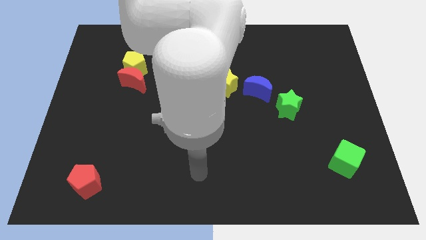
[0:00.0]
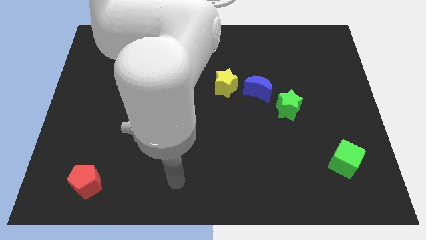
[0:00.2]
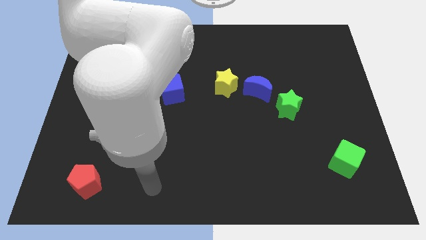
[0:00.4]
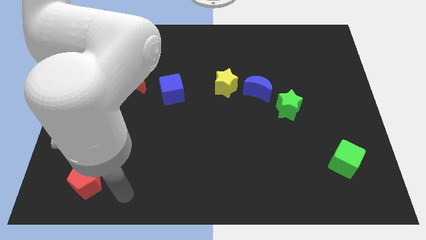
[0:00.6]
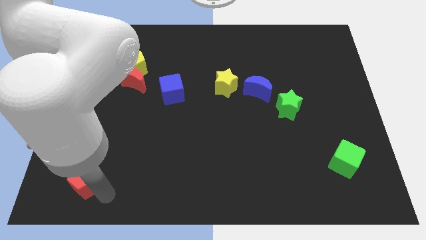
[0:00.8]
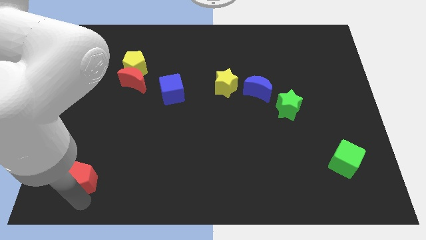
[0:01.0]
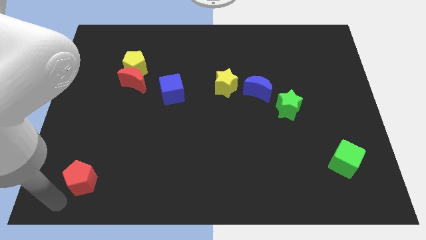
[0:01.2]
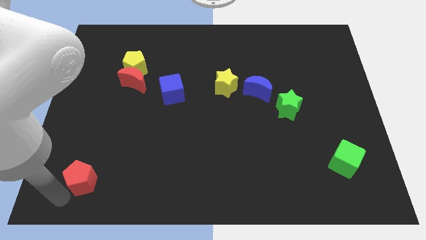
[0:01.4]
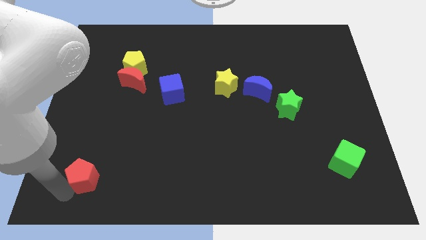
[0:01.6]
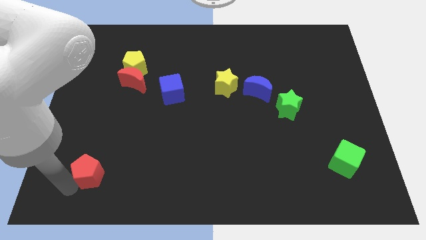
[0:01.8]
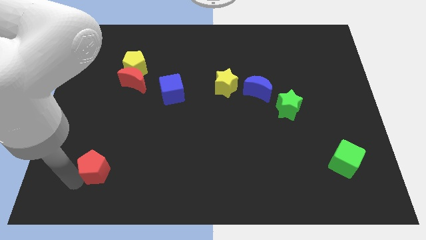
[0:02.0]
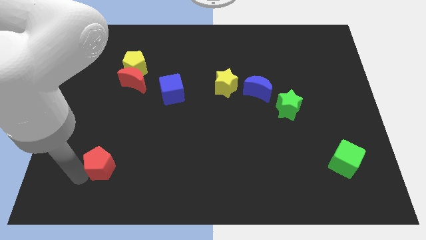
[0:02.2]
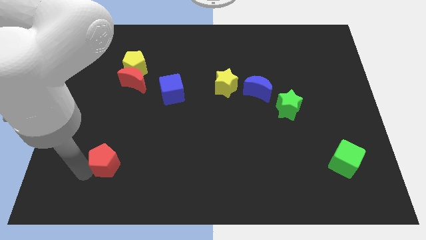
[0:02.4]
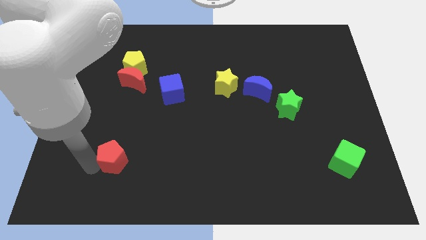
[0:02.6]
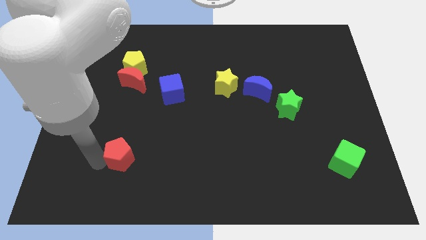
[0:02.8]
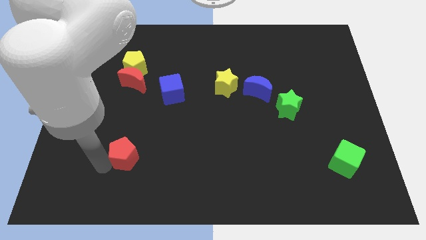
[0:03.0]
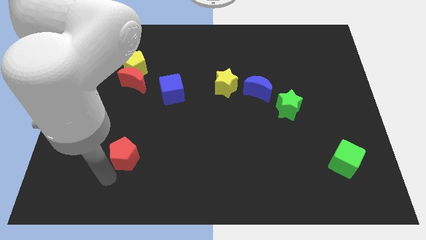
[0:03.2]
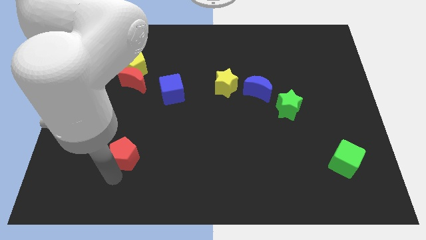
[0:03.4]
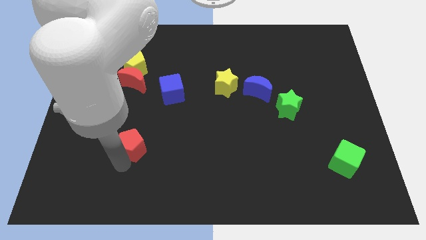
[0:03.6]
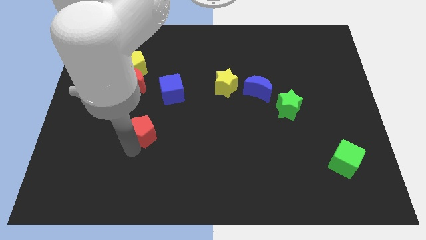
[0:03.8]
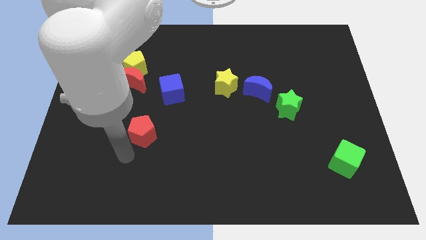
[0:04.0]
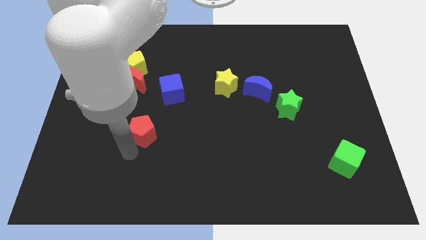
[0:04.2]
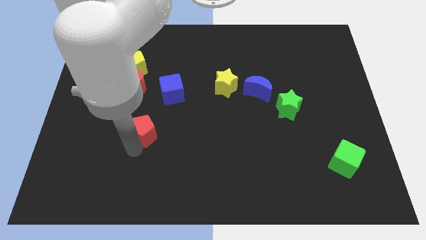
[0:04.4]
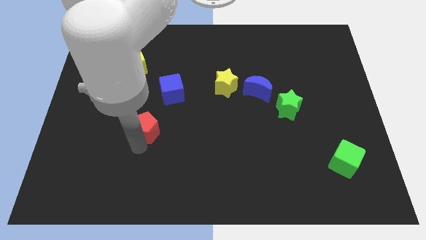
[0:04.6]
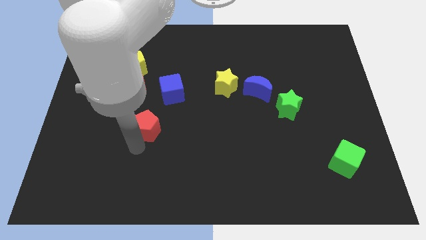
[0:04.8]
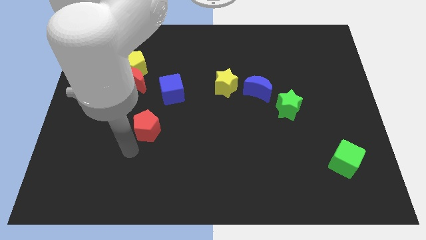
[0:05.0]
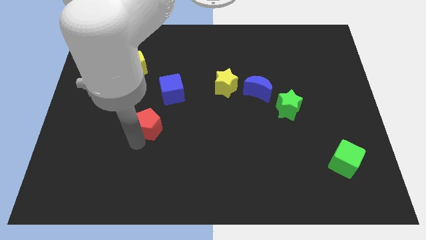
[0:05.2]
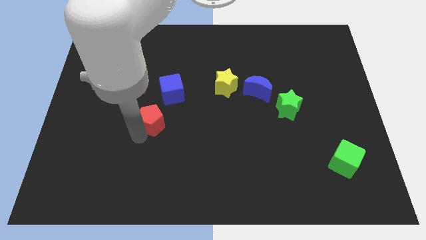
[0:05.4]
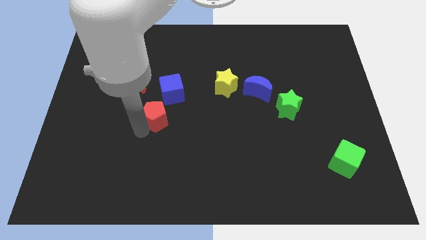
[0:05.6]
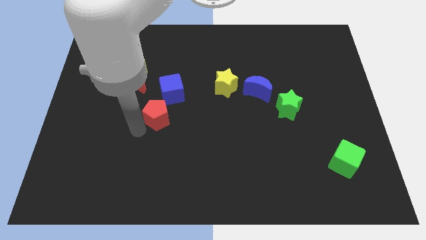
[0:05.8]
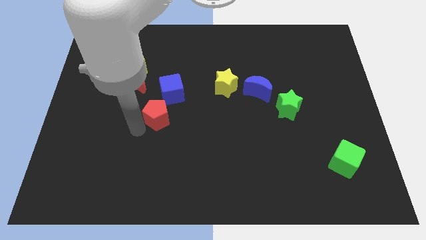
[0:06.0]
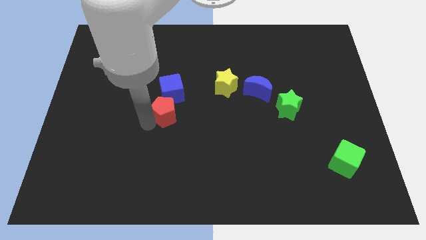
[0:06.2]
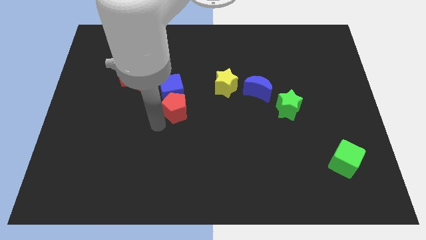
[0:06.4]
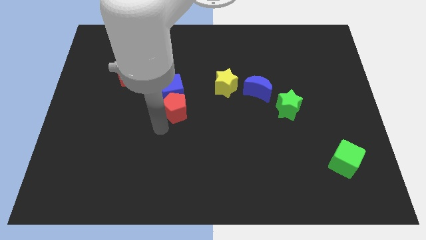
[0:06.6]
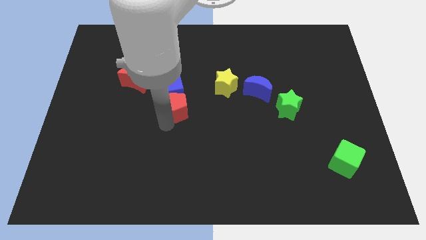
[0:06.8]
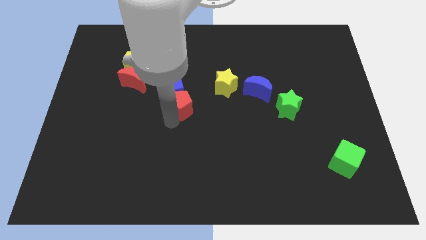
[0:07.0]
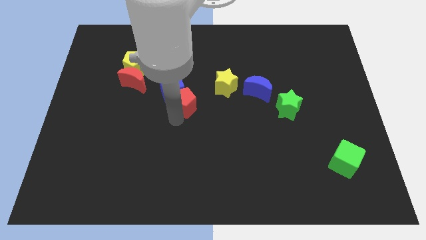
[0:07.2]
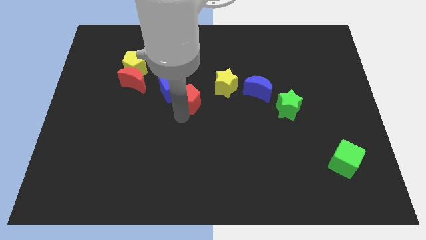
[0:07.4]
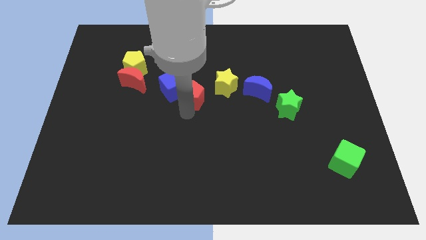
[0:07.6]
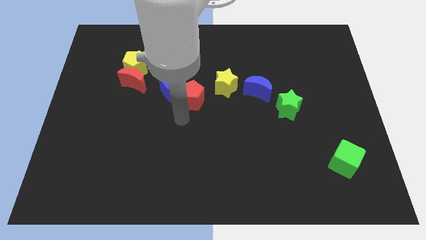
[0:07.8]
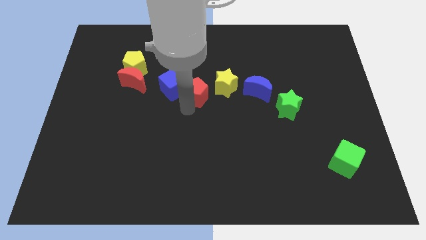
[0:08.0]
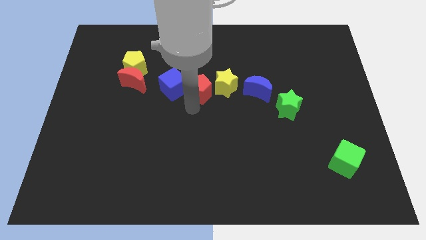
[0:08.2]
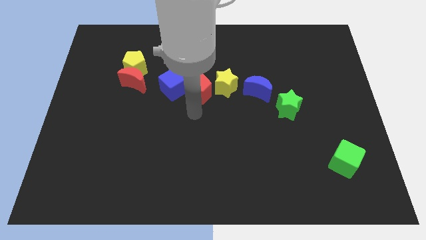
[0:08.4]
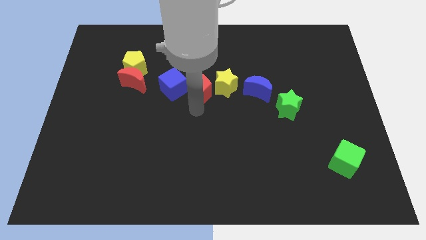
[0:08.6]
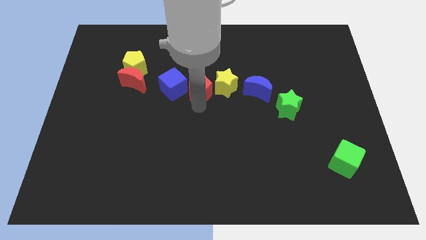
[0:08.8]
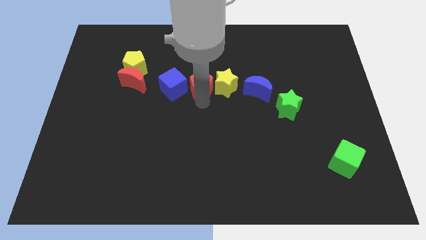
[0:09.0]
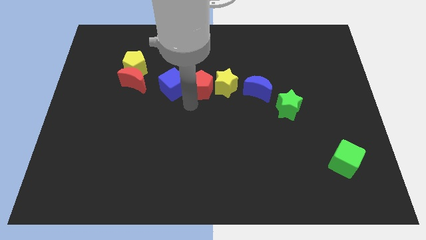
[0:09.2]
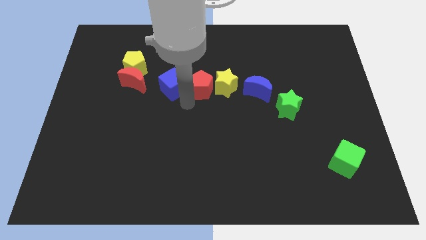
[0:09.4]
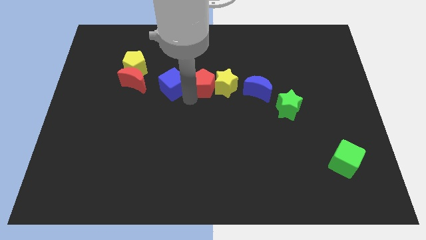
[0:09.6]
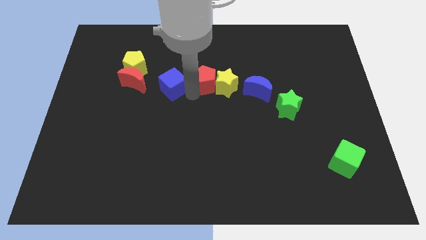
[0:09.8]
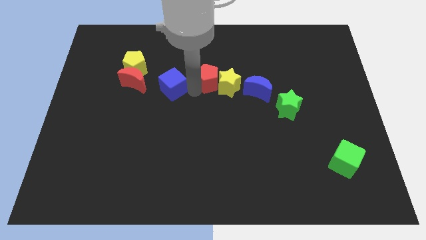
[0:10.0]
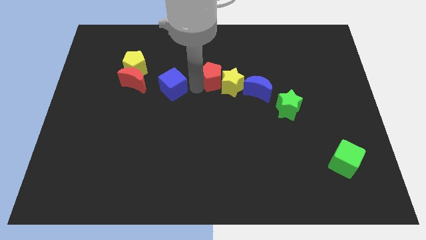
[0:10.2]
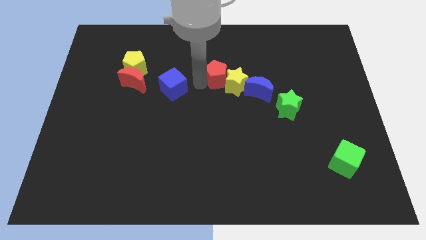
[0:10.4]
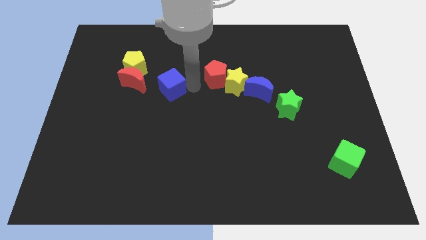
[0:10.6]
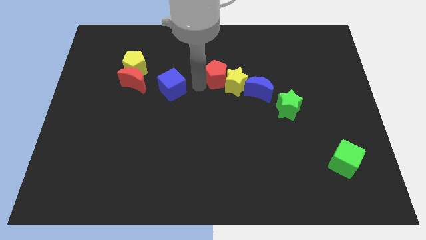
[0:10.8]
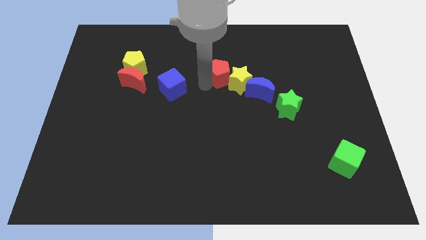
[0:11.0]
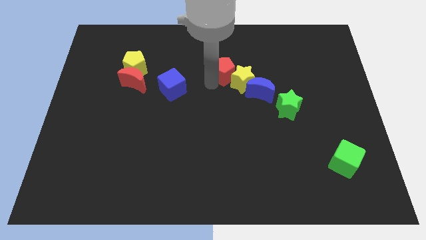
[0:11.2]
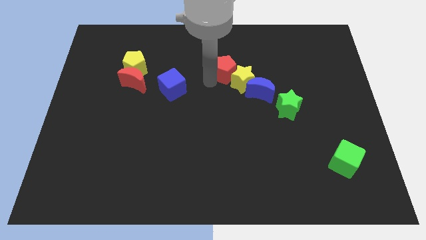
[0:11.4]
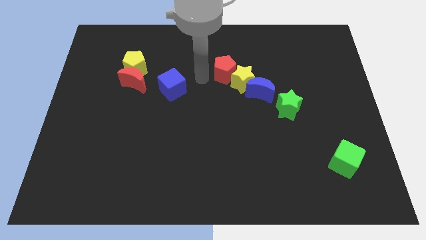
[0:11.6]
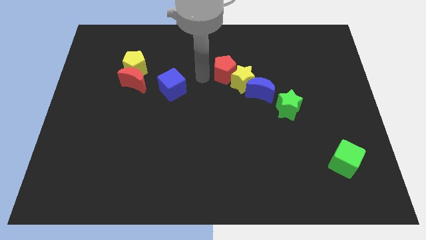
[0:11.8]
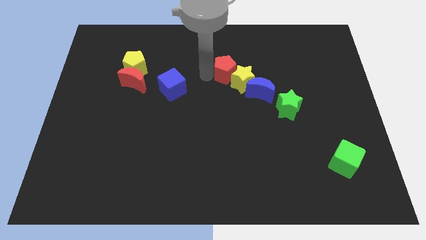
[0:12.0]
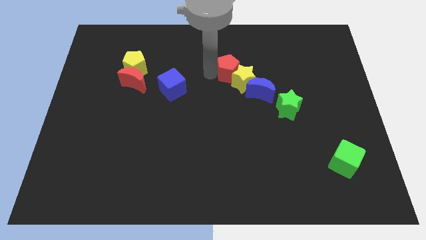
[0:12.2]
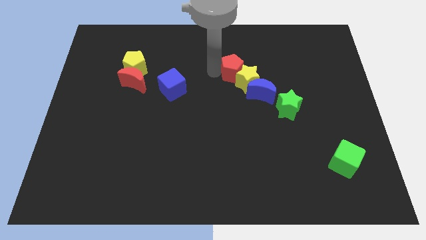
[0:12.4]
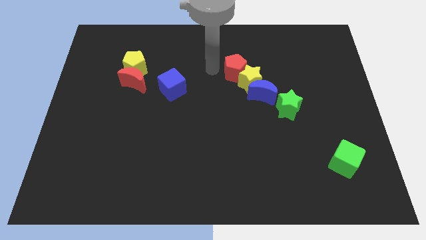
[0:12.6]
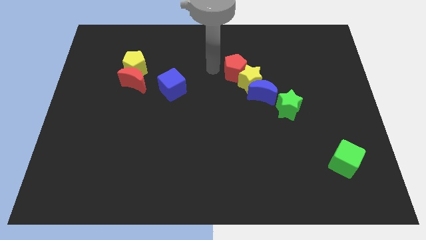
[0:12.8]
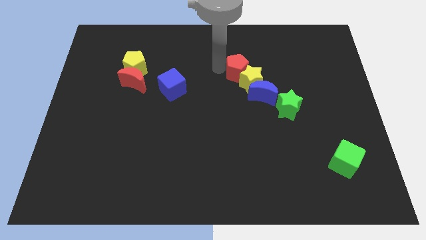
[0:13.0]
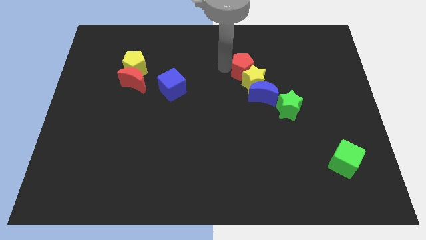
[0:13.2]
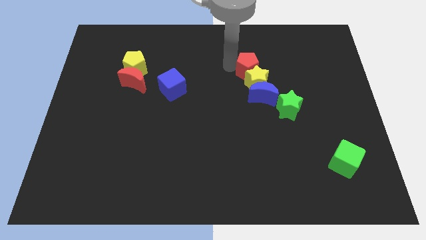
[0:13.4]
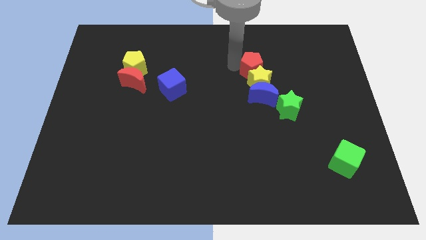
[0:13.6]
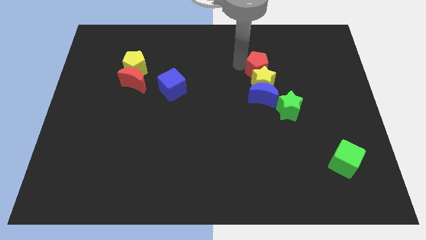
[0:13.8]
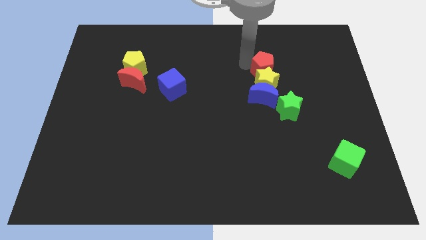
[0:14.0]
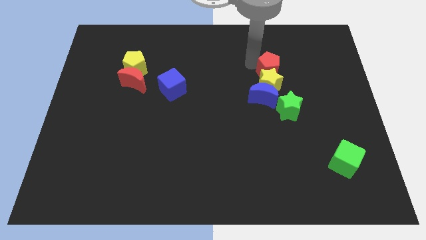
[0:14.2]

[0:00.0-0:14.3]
put the red pentagon to the top right of the blue moon

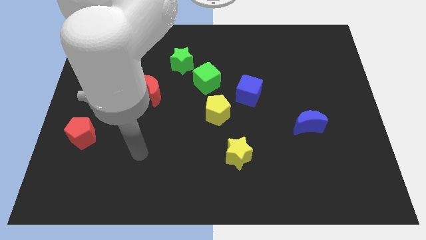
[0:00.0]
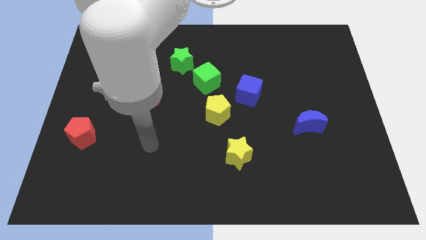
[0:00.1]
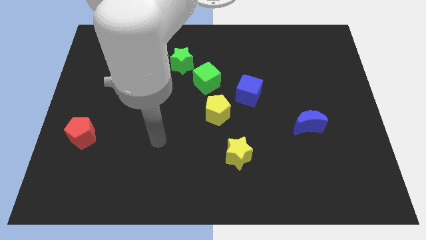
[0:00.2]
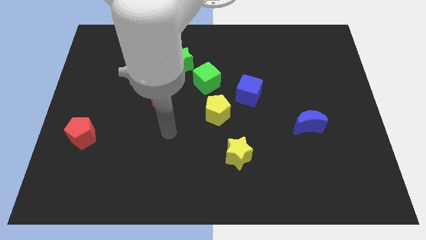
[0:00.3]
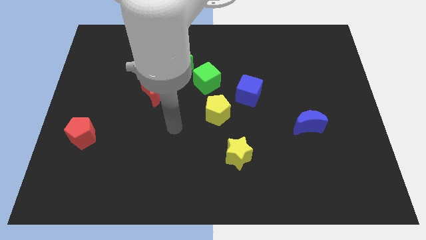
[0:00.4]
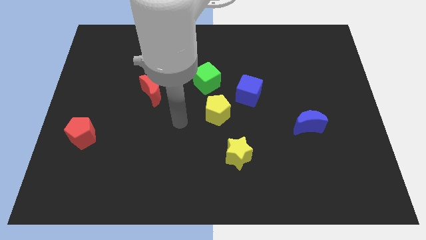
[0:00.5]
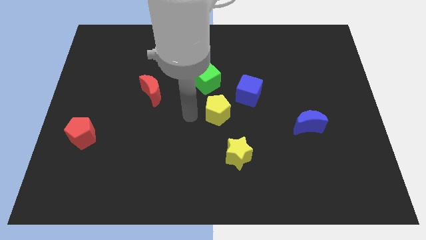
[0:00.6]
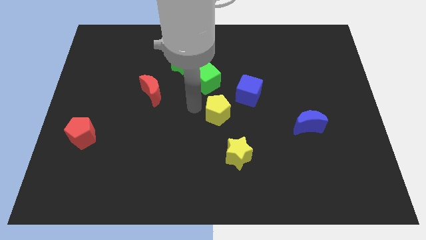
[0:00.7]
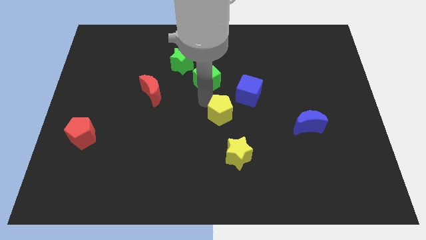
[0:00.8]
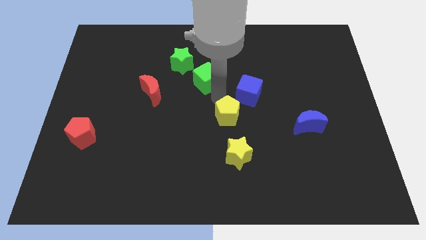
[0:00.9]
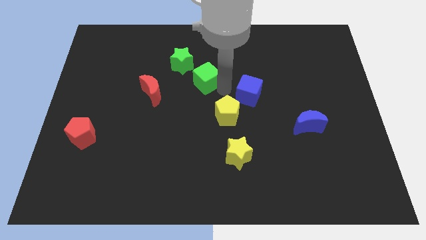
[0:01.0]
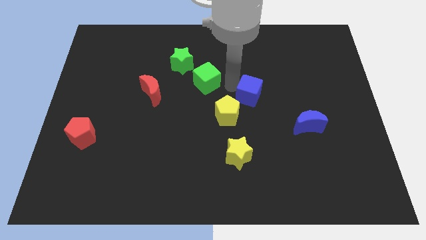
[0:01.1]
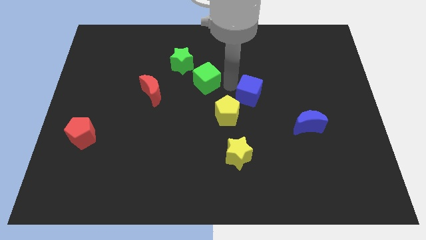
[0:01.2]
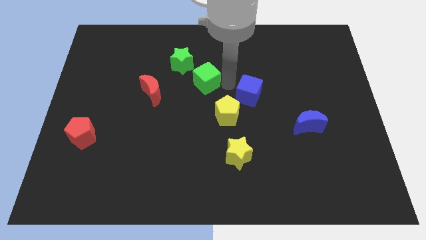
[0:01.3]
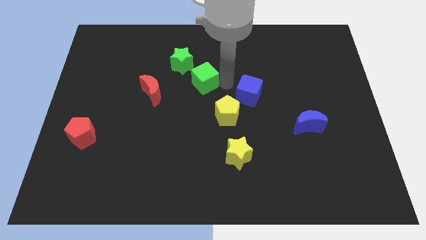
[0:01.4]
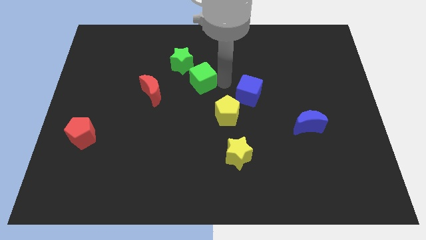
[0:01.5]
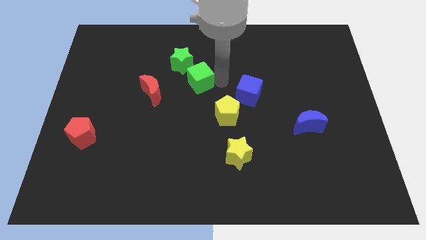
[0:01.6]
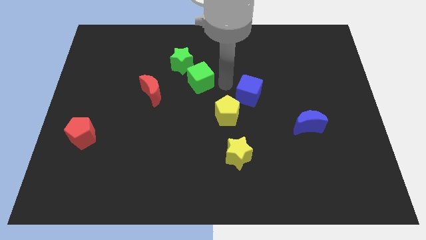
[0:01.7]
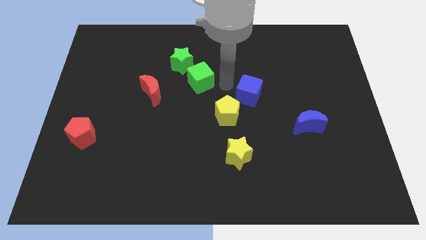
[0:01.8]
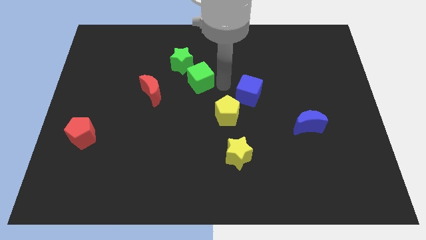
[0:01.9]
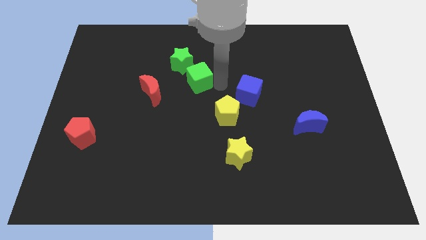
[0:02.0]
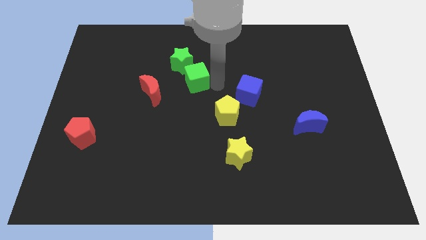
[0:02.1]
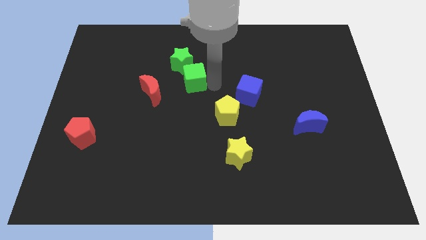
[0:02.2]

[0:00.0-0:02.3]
push the green cube to the top right of the red moon
